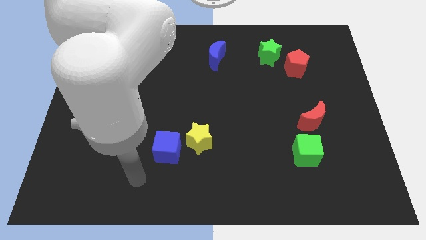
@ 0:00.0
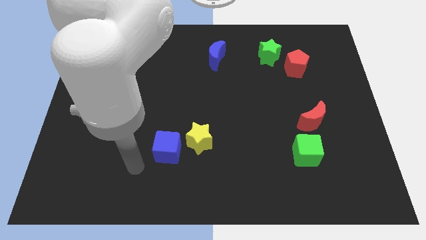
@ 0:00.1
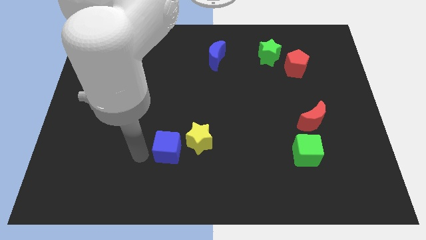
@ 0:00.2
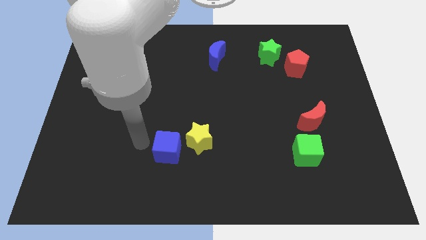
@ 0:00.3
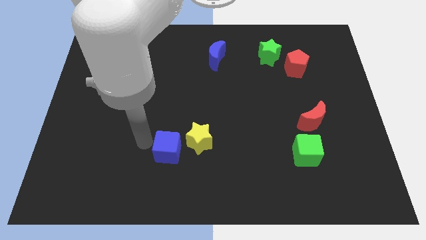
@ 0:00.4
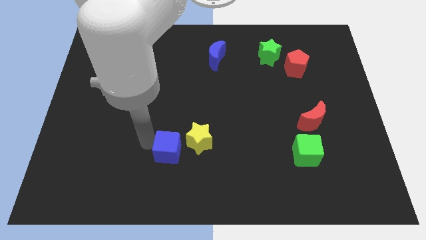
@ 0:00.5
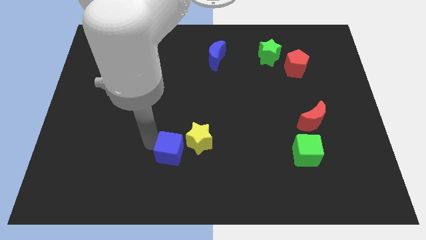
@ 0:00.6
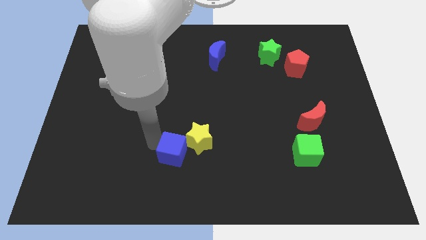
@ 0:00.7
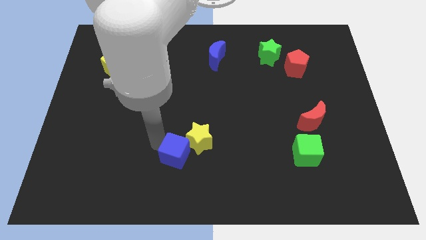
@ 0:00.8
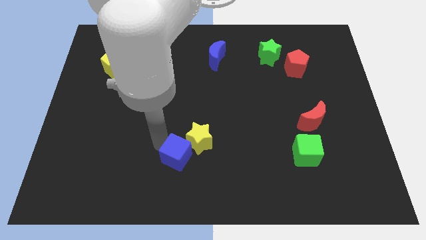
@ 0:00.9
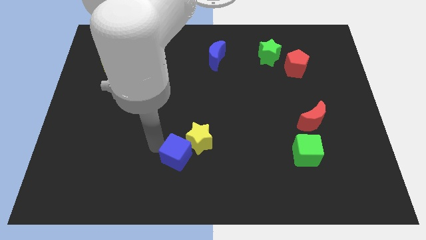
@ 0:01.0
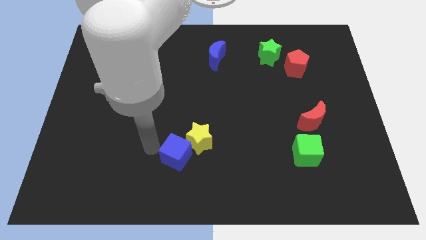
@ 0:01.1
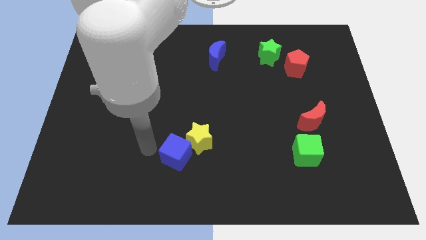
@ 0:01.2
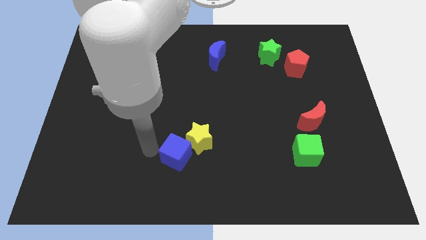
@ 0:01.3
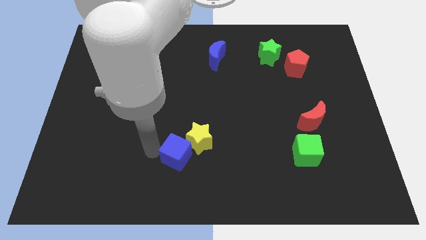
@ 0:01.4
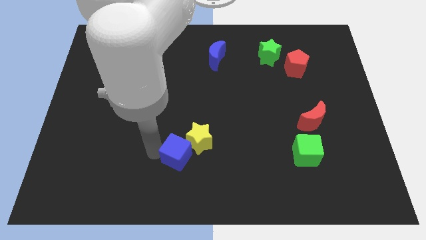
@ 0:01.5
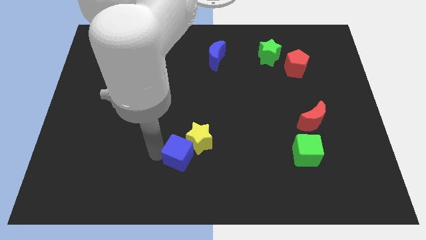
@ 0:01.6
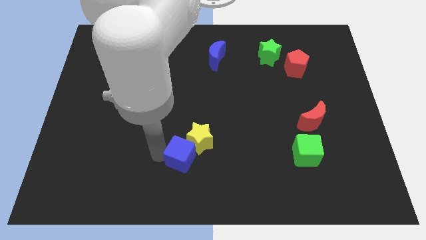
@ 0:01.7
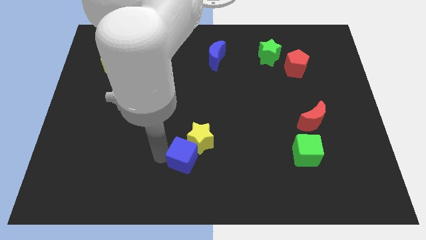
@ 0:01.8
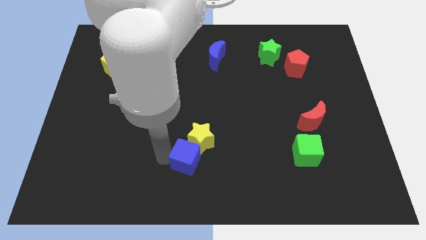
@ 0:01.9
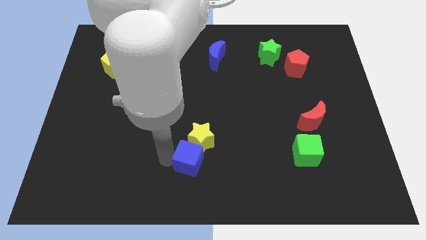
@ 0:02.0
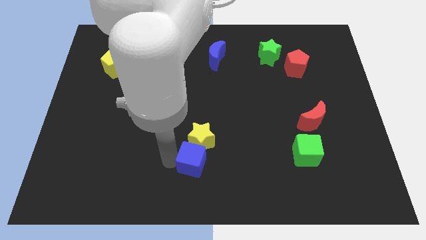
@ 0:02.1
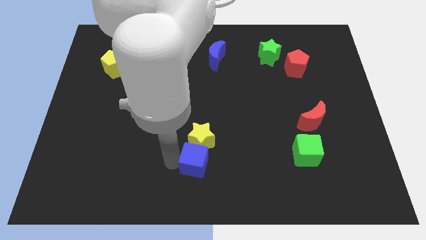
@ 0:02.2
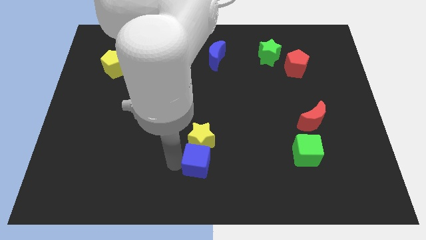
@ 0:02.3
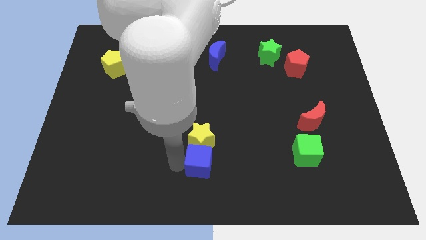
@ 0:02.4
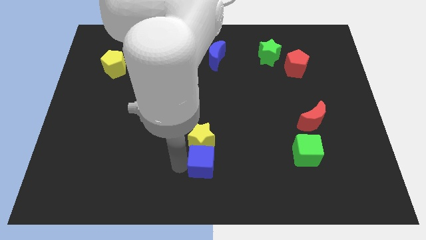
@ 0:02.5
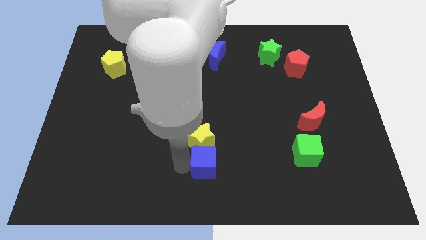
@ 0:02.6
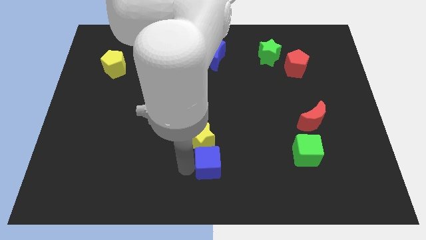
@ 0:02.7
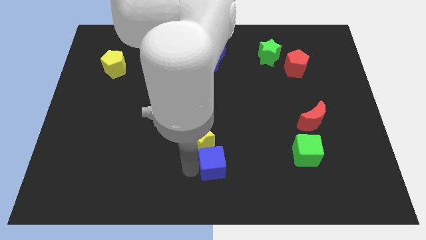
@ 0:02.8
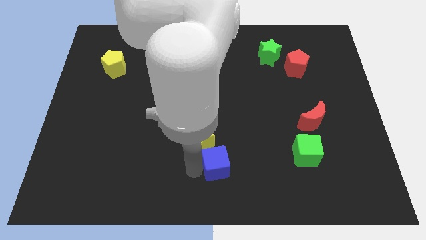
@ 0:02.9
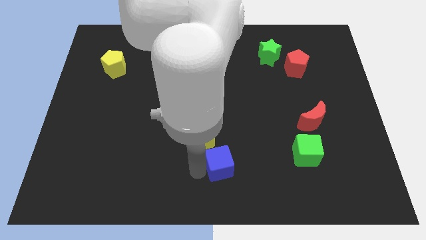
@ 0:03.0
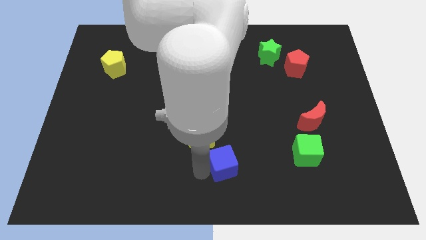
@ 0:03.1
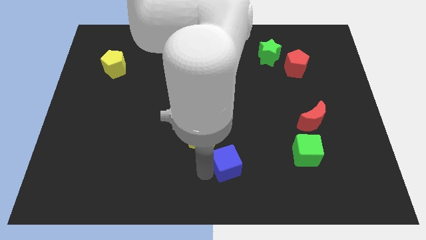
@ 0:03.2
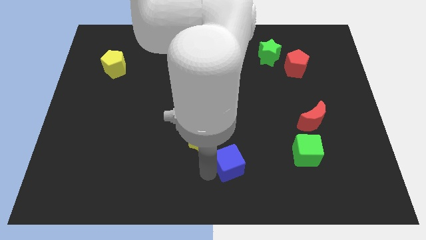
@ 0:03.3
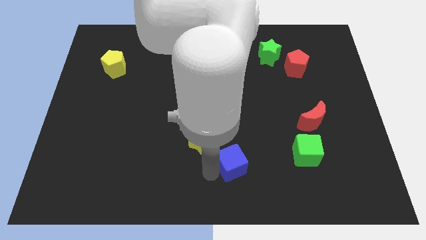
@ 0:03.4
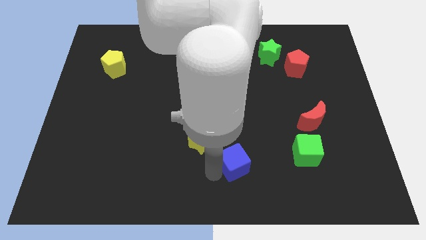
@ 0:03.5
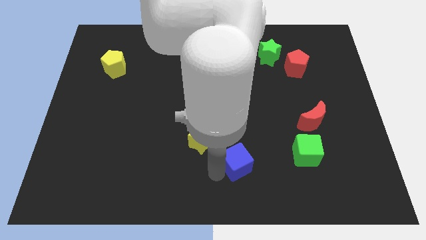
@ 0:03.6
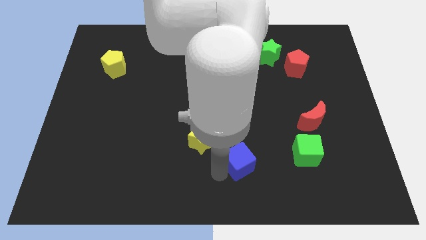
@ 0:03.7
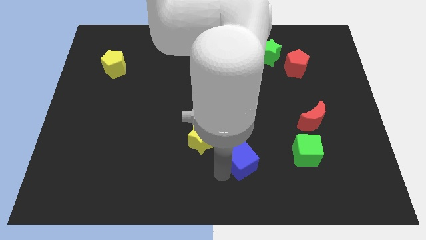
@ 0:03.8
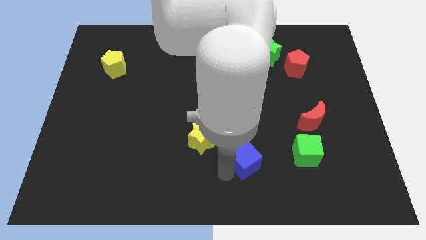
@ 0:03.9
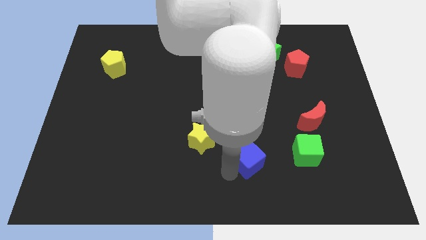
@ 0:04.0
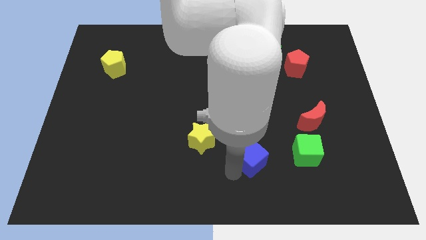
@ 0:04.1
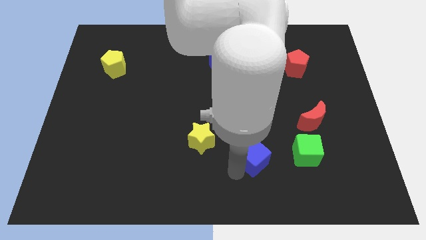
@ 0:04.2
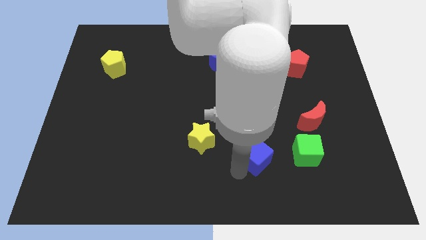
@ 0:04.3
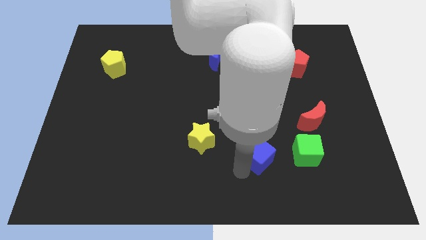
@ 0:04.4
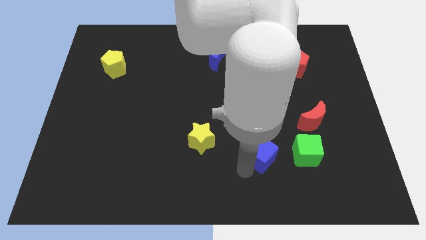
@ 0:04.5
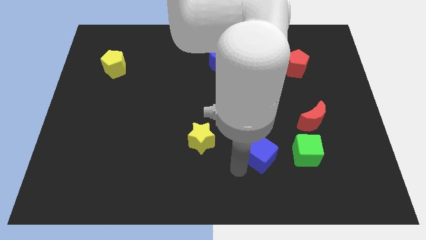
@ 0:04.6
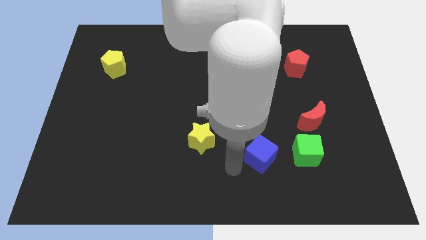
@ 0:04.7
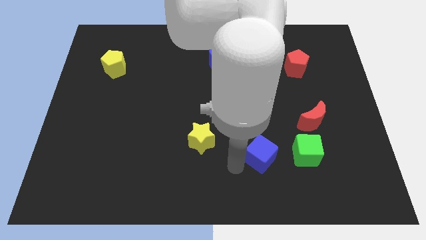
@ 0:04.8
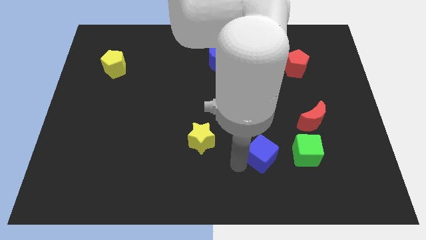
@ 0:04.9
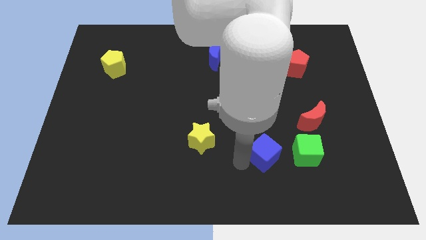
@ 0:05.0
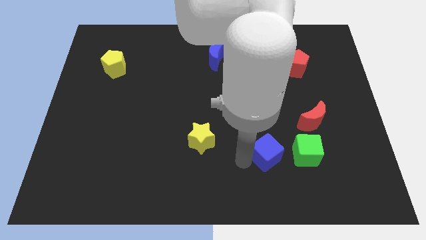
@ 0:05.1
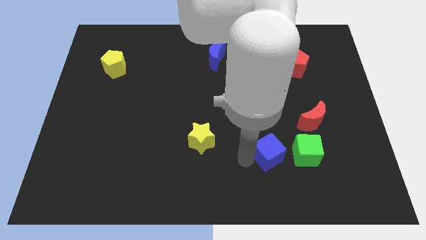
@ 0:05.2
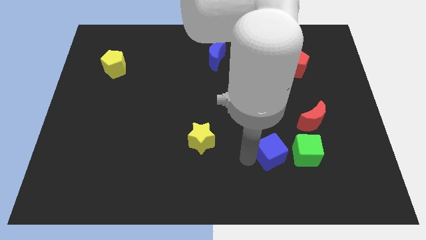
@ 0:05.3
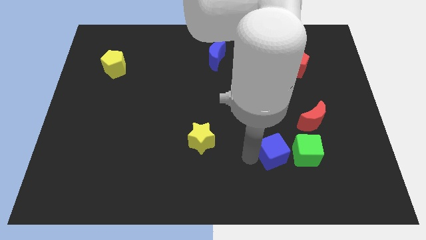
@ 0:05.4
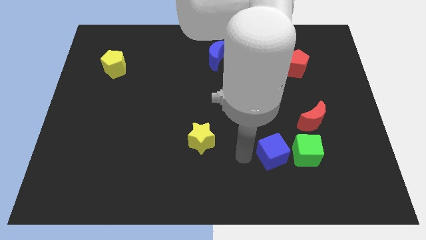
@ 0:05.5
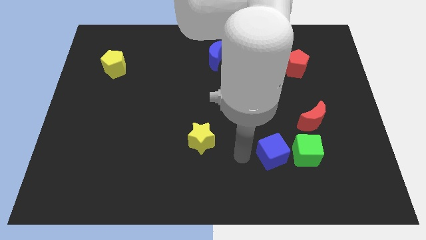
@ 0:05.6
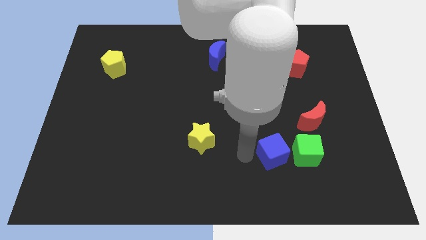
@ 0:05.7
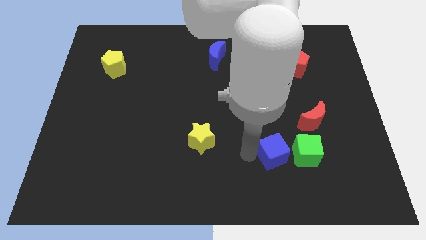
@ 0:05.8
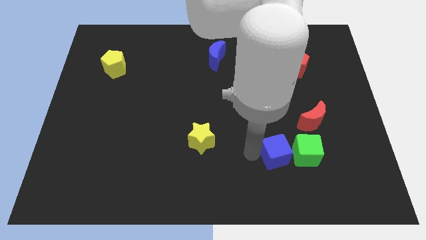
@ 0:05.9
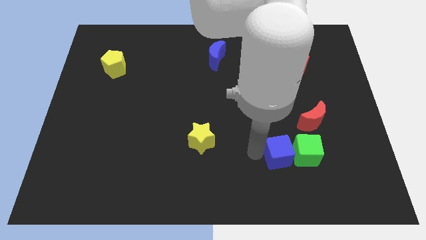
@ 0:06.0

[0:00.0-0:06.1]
put the blue cube towards the green cube
